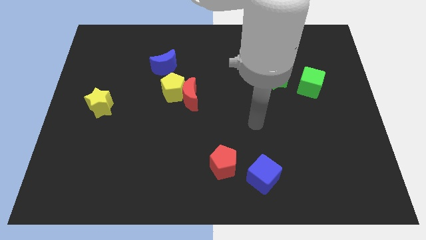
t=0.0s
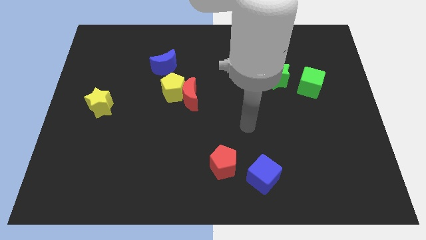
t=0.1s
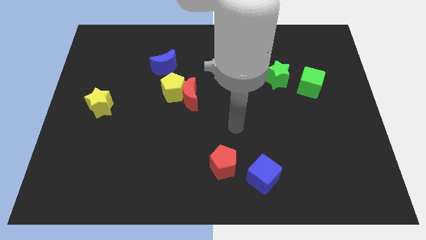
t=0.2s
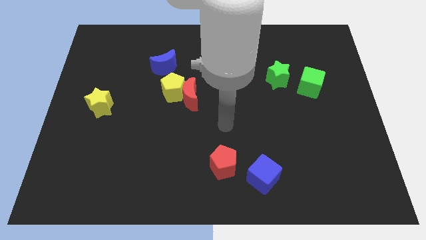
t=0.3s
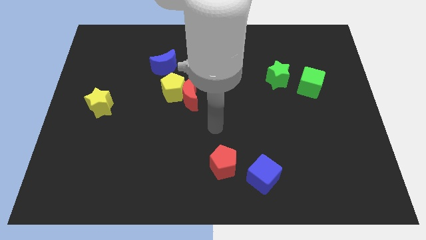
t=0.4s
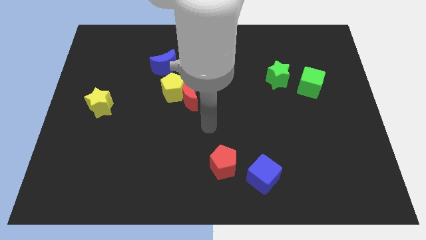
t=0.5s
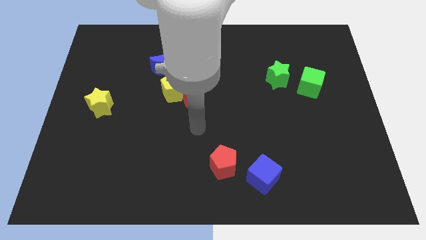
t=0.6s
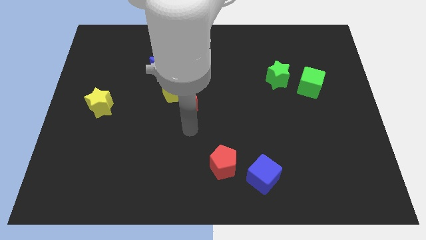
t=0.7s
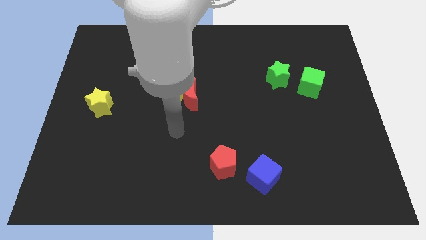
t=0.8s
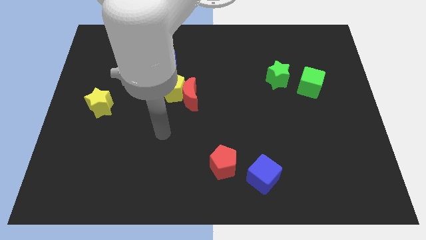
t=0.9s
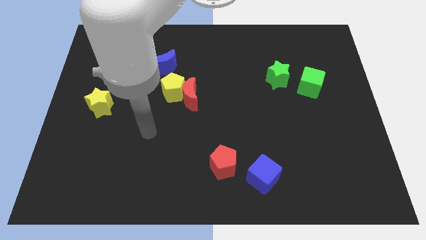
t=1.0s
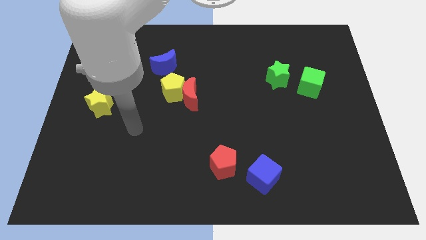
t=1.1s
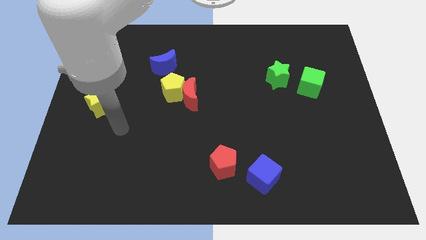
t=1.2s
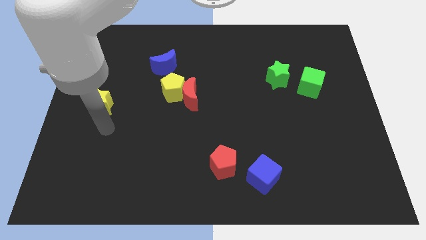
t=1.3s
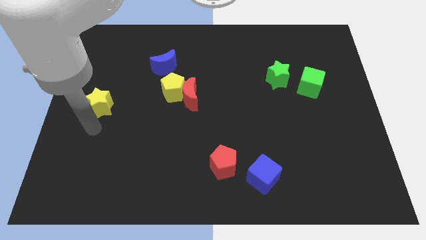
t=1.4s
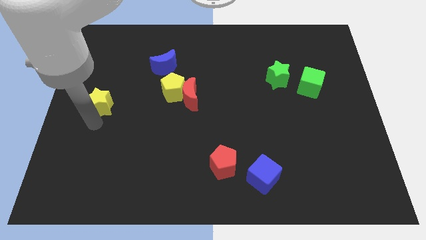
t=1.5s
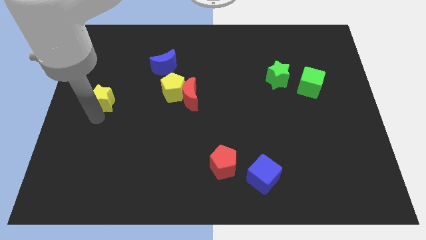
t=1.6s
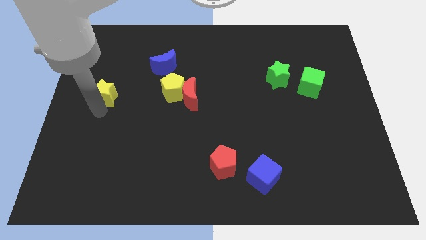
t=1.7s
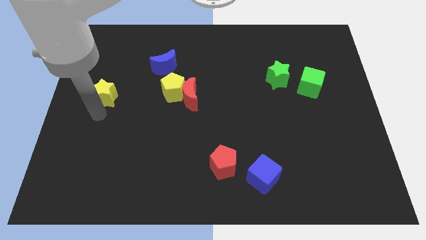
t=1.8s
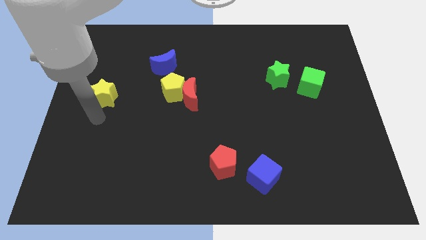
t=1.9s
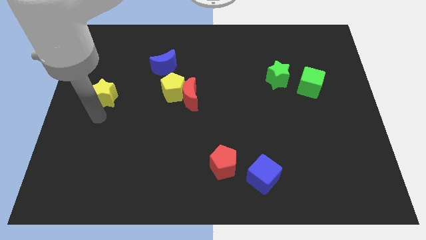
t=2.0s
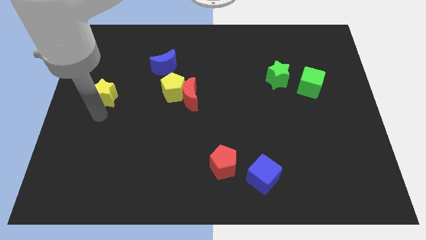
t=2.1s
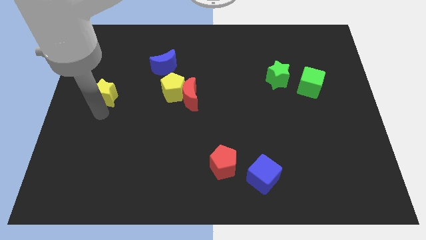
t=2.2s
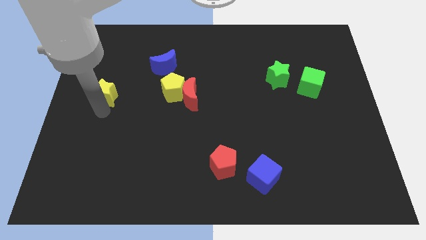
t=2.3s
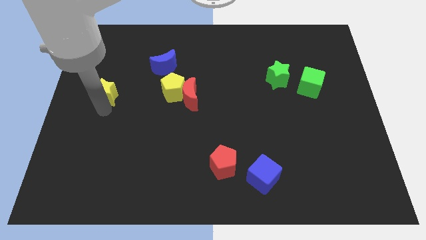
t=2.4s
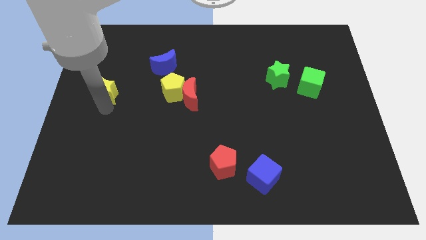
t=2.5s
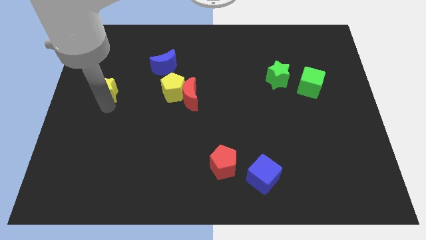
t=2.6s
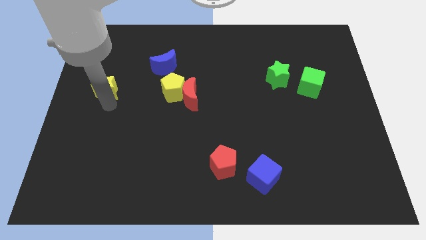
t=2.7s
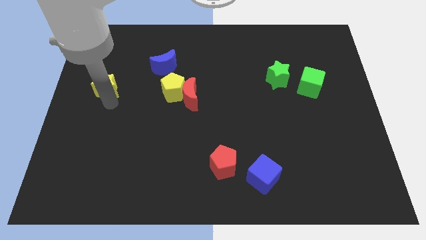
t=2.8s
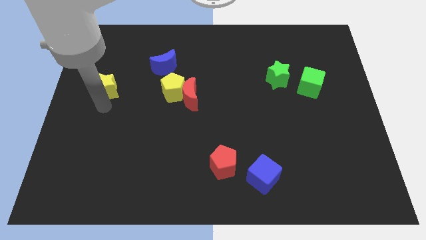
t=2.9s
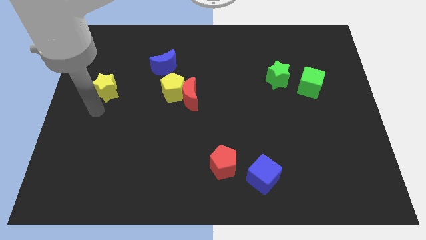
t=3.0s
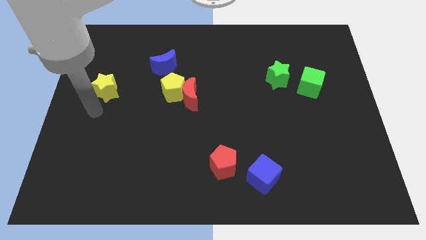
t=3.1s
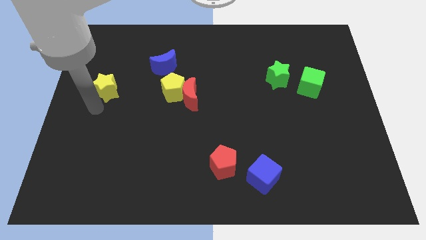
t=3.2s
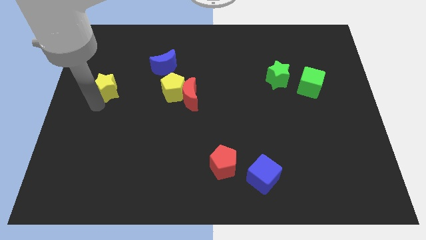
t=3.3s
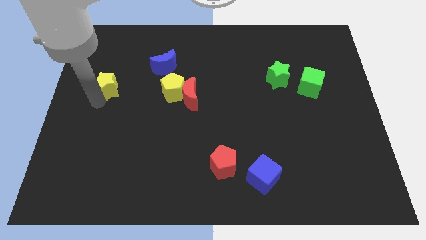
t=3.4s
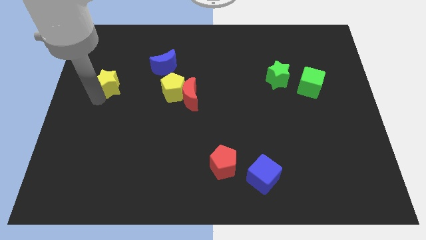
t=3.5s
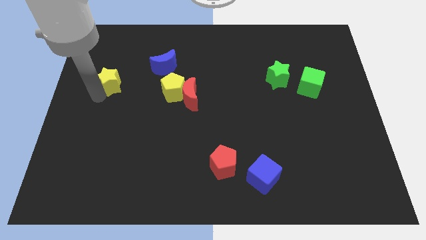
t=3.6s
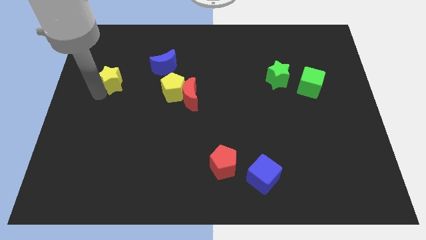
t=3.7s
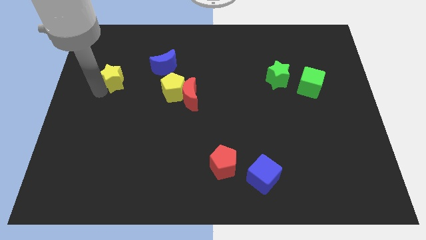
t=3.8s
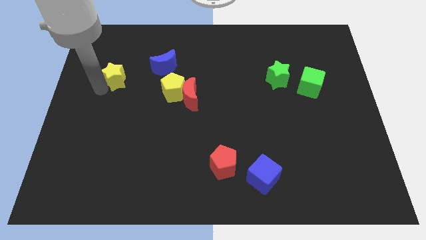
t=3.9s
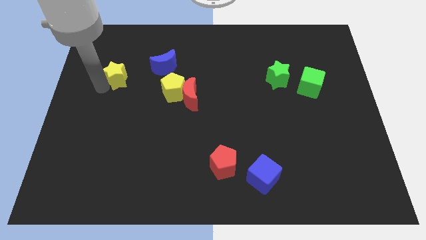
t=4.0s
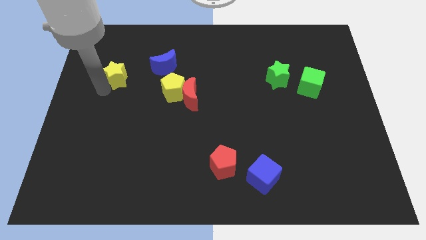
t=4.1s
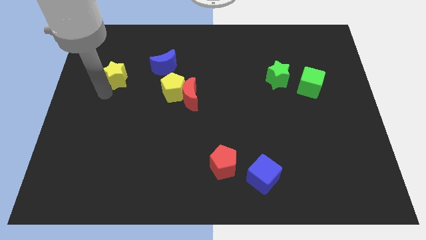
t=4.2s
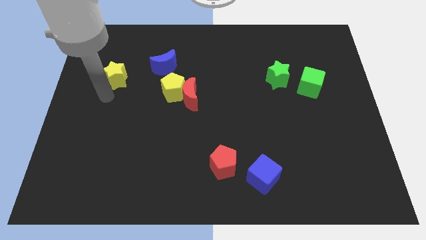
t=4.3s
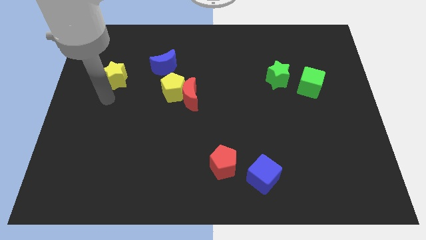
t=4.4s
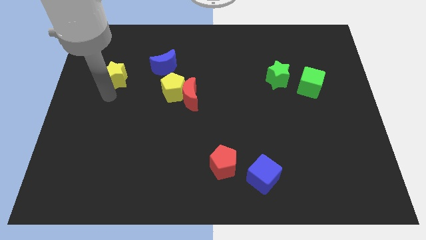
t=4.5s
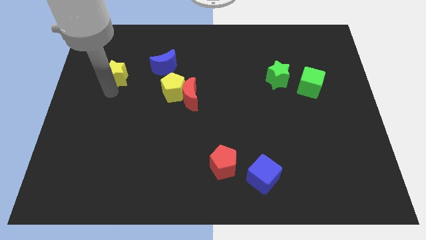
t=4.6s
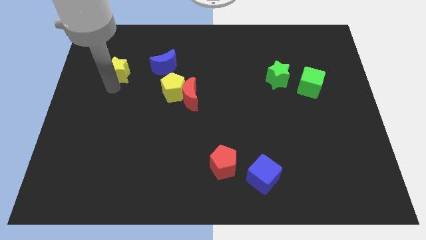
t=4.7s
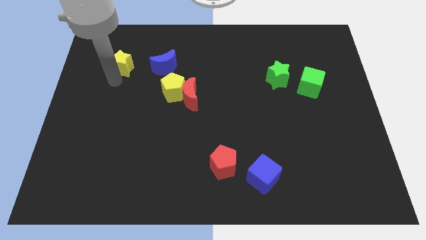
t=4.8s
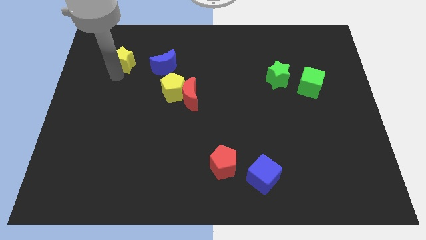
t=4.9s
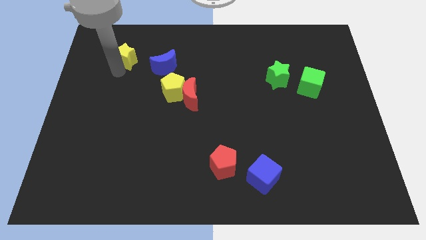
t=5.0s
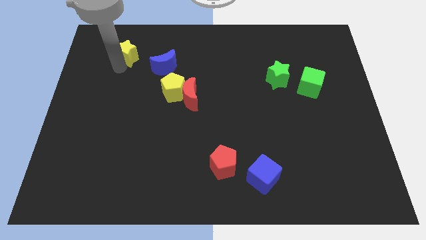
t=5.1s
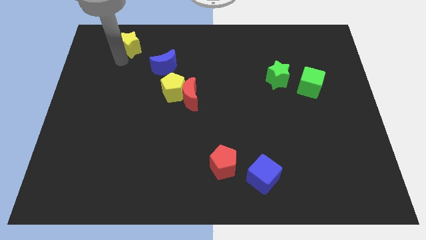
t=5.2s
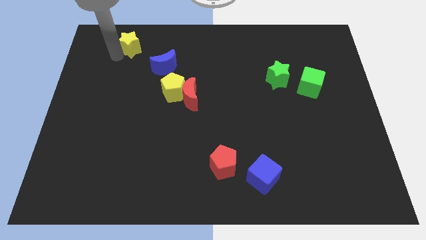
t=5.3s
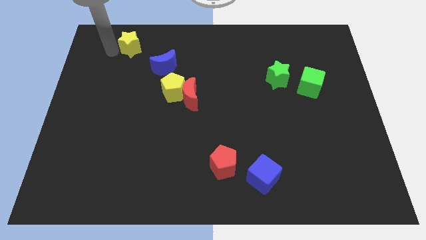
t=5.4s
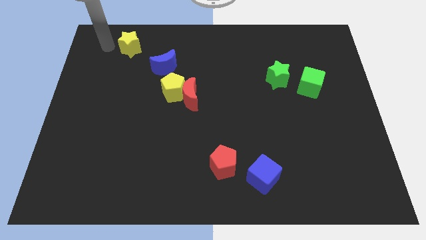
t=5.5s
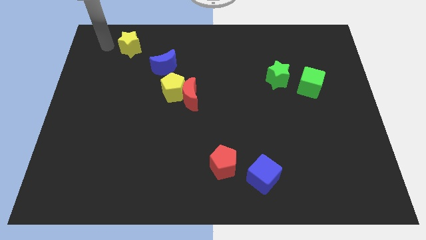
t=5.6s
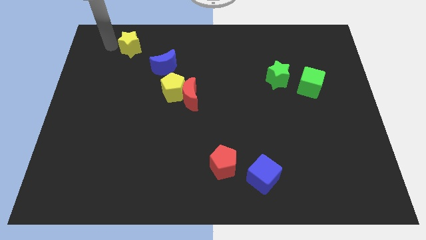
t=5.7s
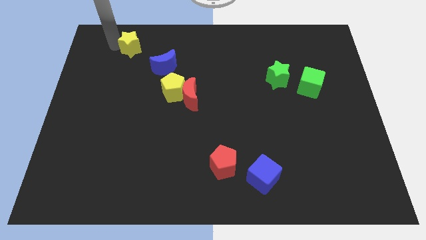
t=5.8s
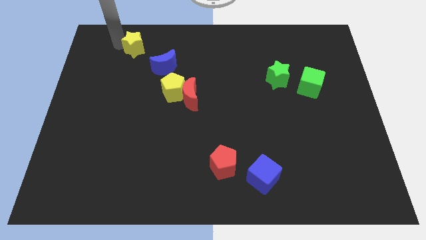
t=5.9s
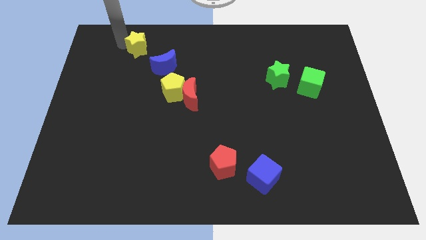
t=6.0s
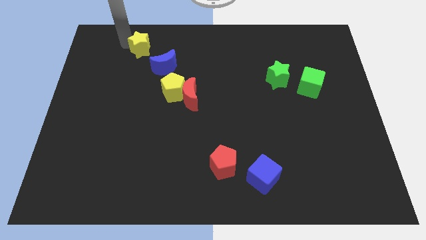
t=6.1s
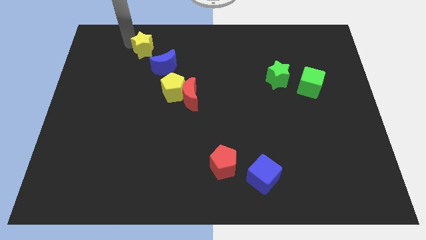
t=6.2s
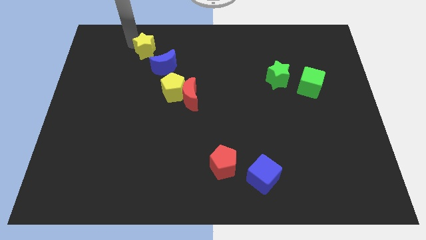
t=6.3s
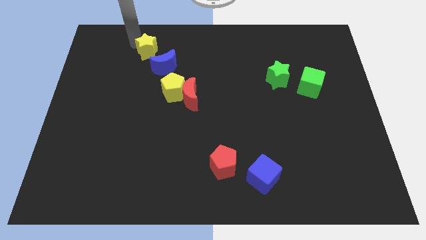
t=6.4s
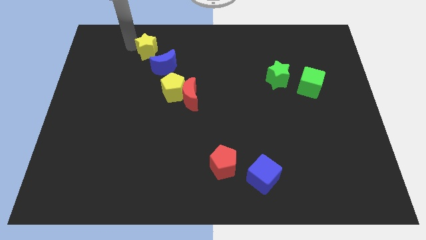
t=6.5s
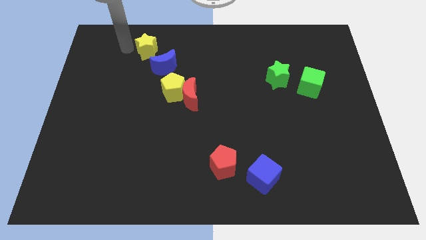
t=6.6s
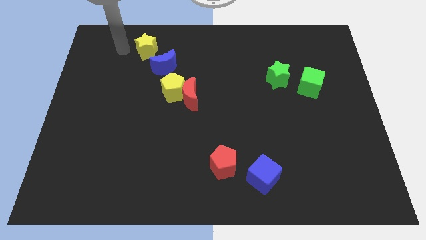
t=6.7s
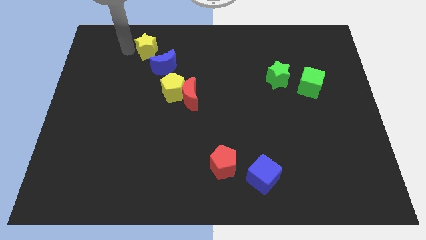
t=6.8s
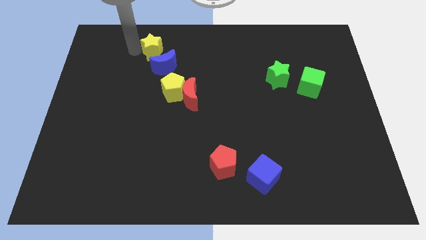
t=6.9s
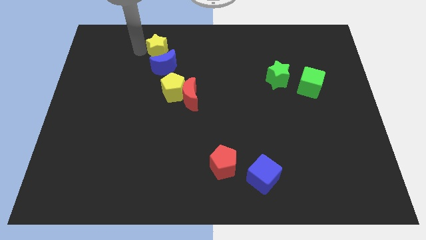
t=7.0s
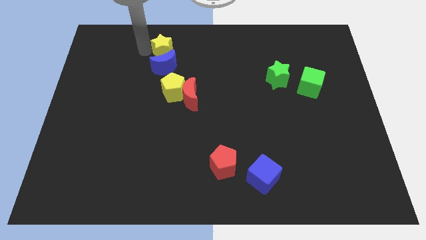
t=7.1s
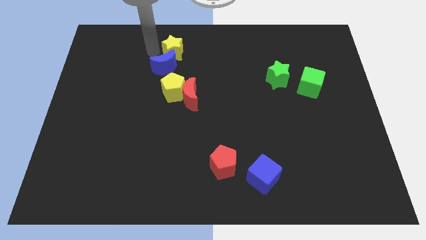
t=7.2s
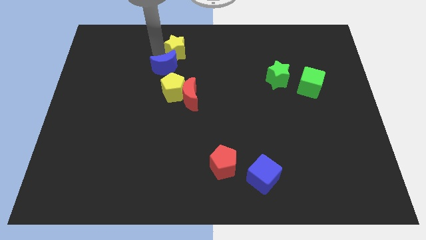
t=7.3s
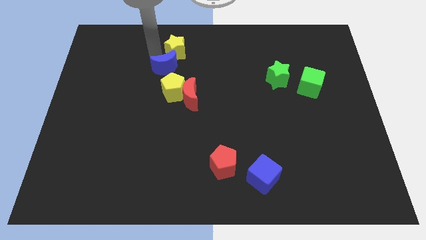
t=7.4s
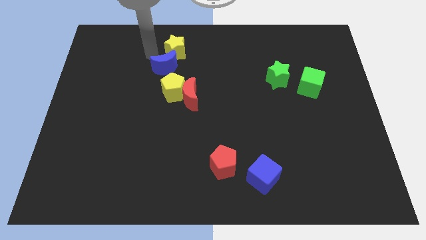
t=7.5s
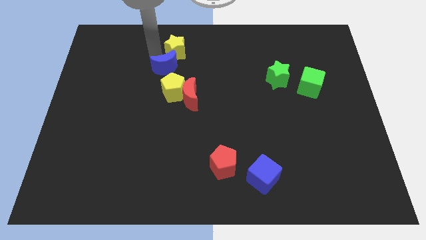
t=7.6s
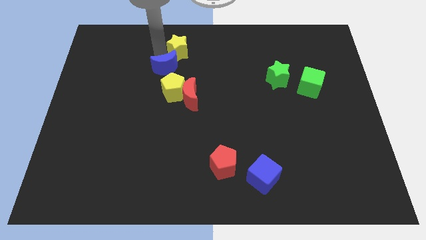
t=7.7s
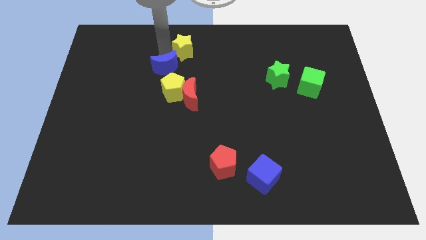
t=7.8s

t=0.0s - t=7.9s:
slide the yellow star to the top
